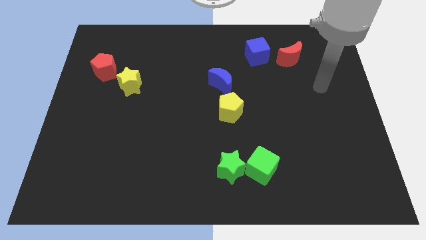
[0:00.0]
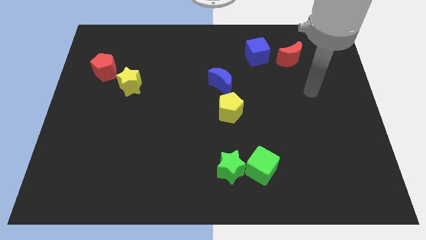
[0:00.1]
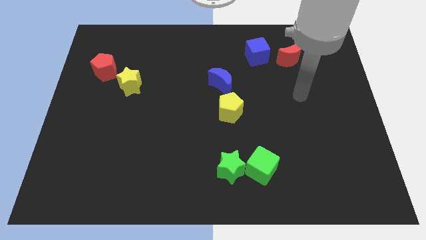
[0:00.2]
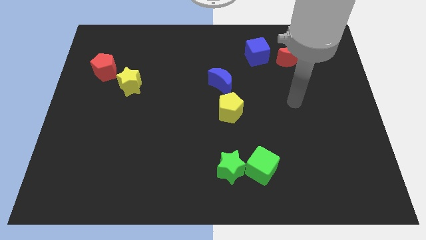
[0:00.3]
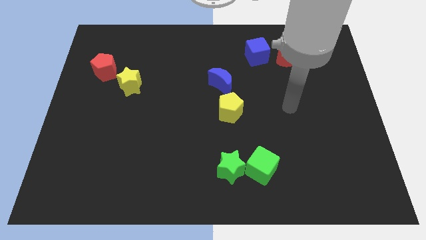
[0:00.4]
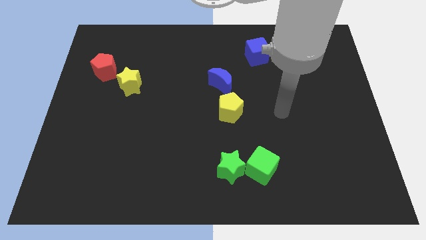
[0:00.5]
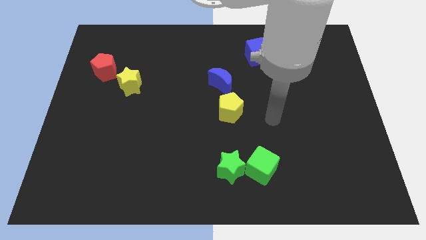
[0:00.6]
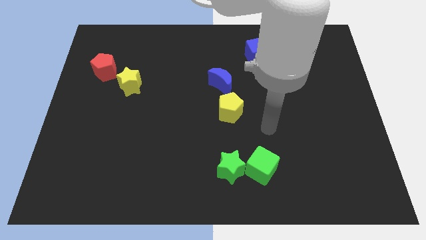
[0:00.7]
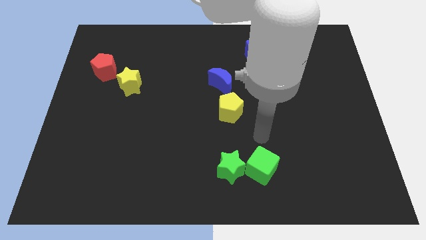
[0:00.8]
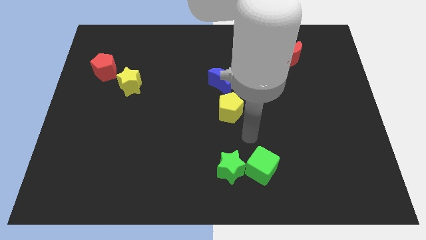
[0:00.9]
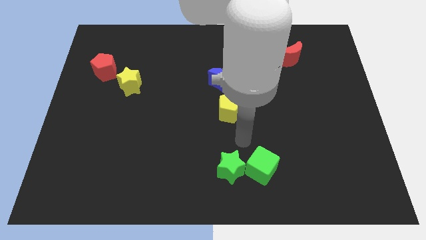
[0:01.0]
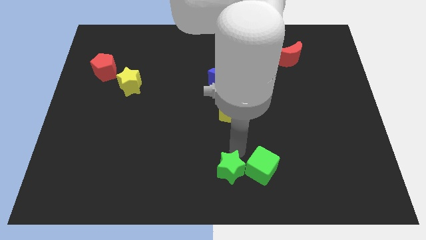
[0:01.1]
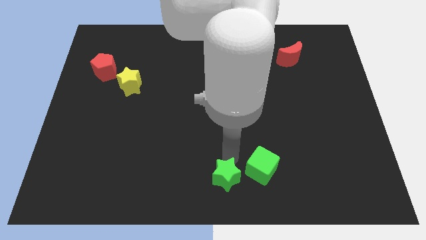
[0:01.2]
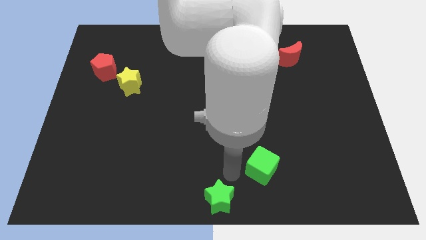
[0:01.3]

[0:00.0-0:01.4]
separate the green cube from the green star

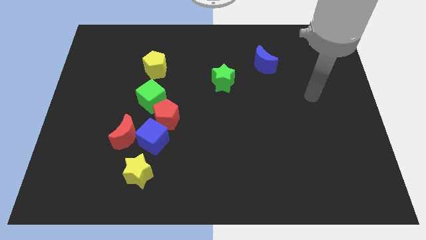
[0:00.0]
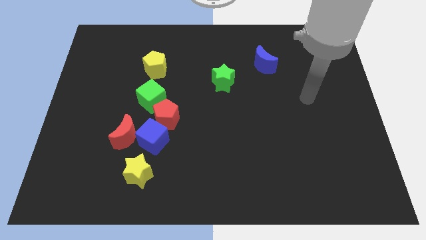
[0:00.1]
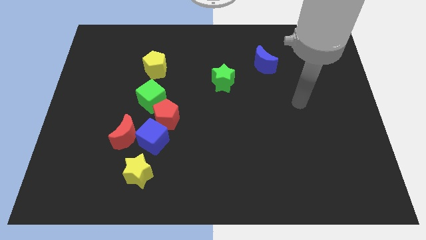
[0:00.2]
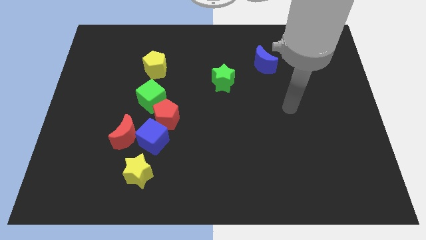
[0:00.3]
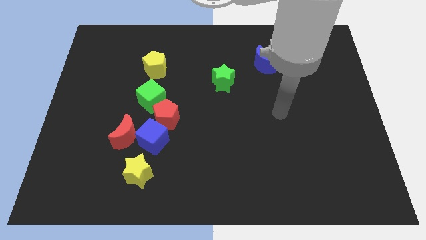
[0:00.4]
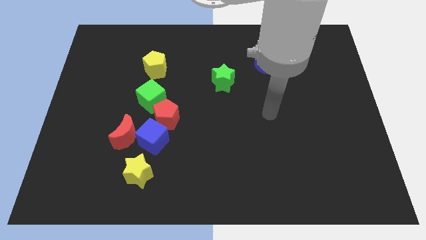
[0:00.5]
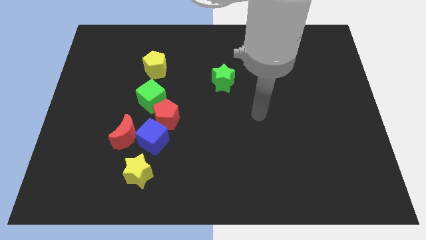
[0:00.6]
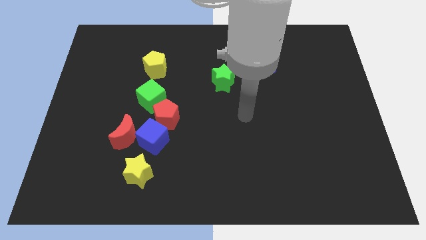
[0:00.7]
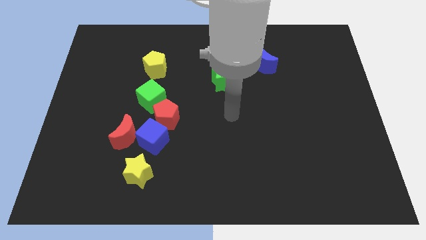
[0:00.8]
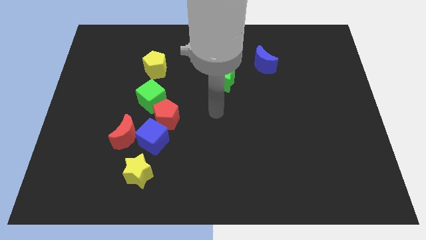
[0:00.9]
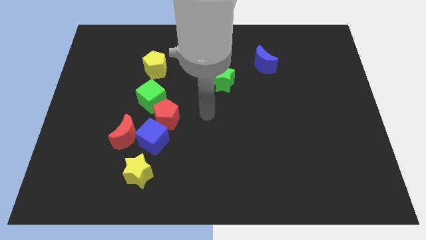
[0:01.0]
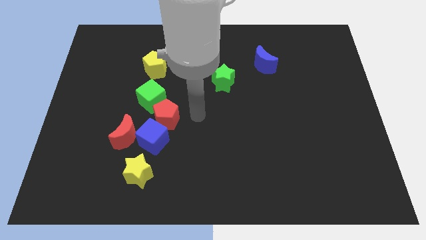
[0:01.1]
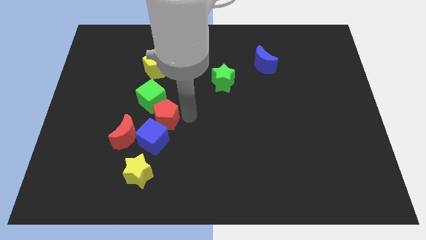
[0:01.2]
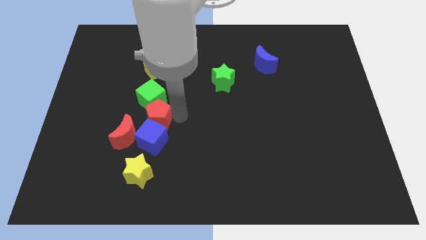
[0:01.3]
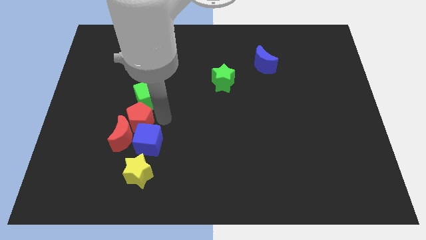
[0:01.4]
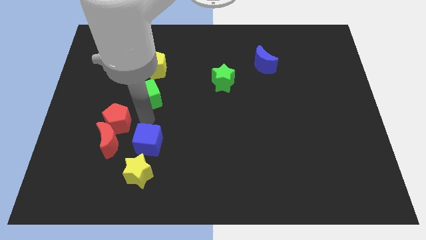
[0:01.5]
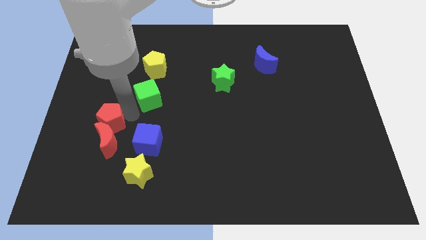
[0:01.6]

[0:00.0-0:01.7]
separate the green cube from the red pentagon

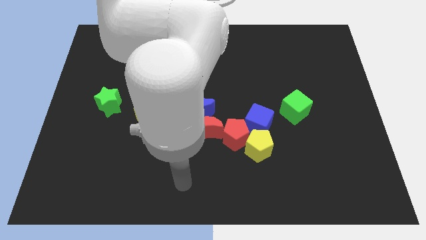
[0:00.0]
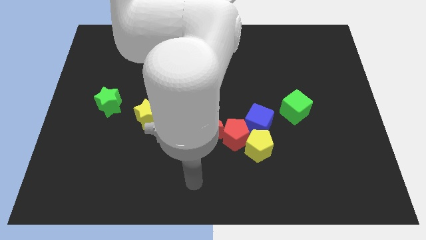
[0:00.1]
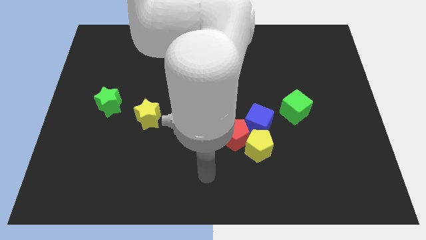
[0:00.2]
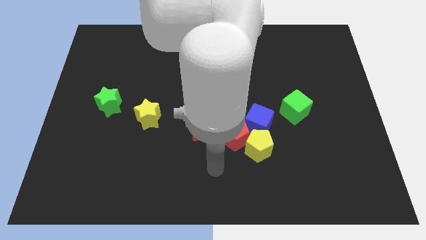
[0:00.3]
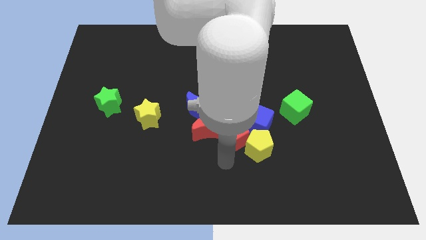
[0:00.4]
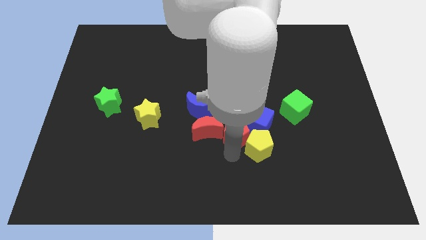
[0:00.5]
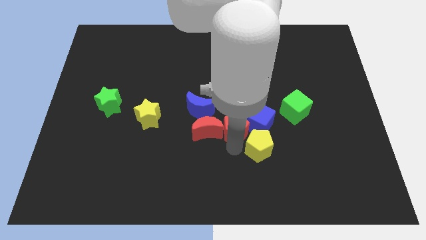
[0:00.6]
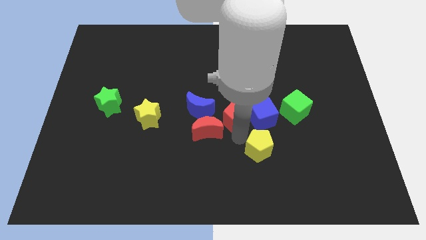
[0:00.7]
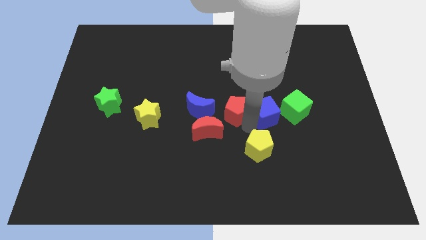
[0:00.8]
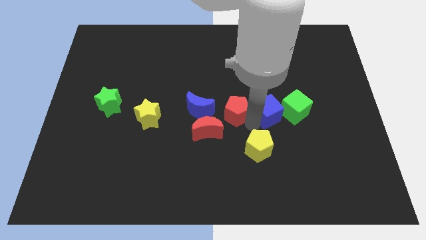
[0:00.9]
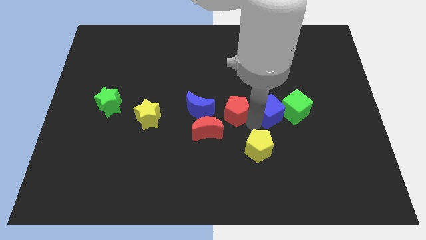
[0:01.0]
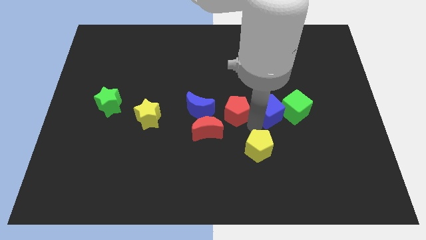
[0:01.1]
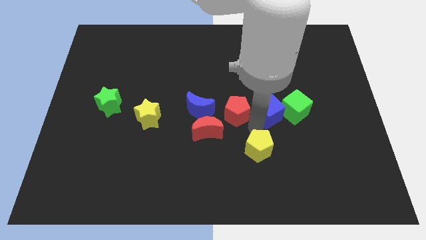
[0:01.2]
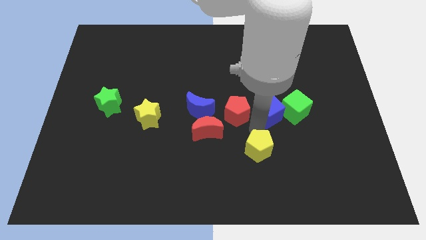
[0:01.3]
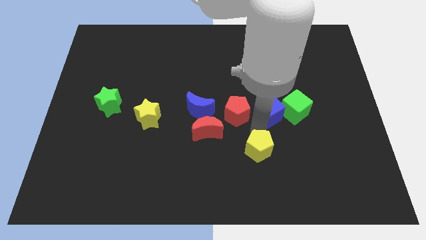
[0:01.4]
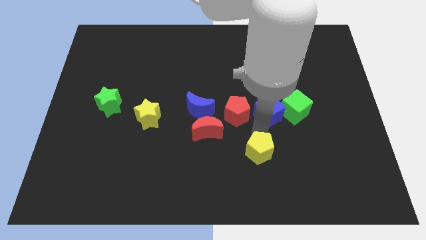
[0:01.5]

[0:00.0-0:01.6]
separate the yellow pentagon from the red pentagon and blue cube

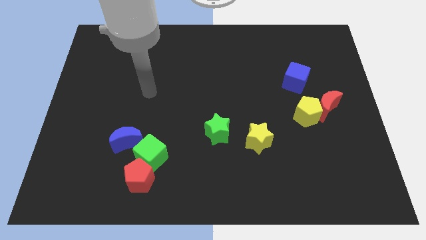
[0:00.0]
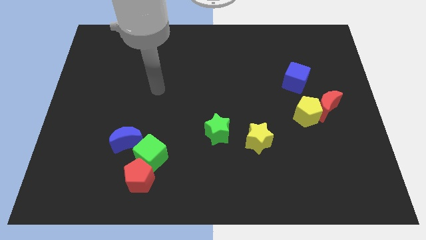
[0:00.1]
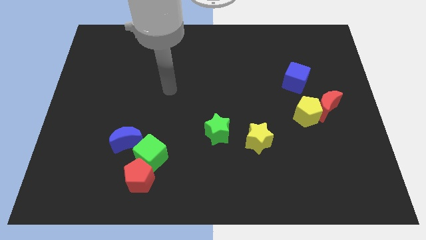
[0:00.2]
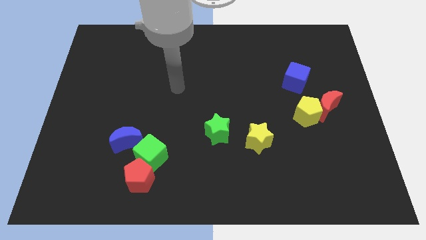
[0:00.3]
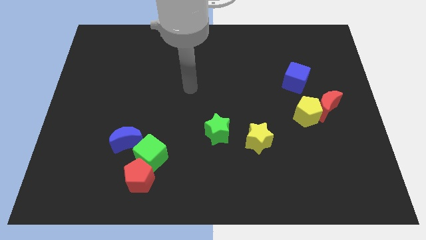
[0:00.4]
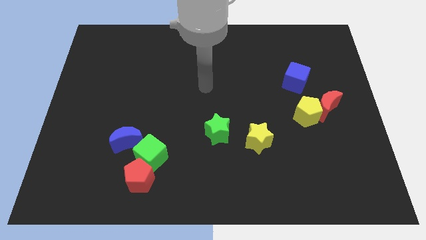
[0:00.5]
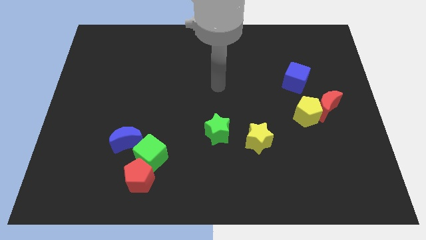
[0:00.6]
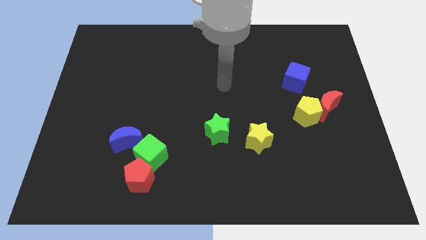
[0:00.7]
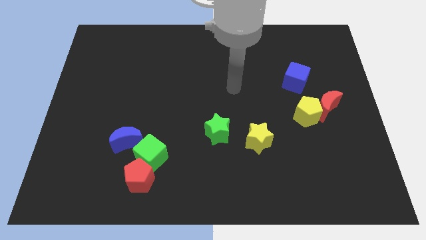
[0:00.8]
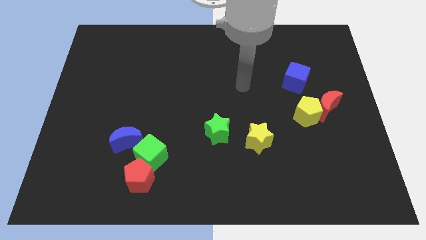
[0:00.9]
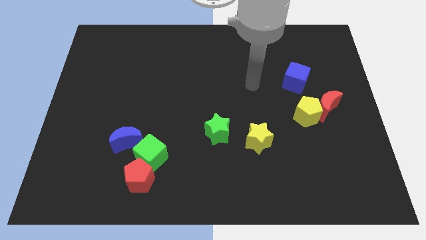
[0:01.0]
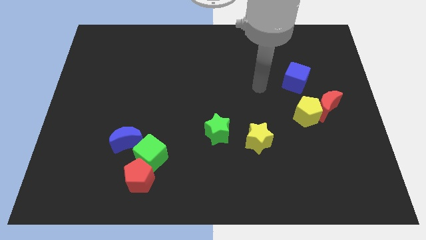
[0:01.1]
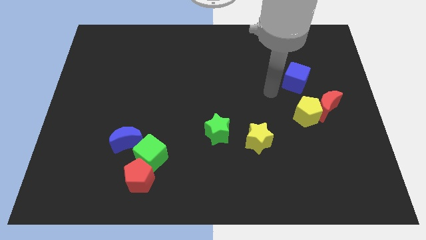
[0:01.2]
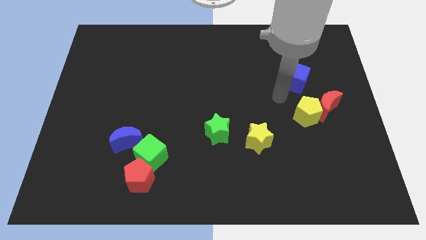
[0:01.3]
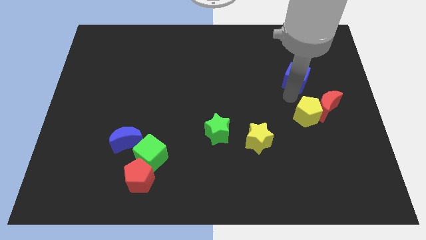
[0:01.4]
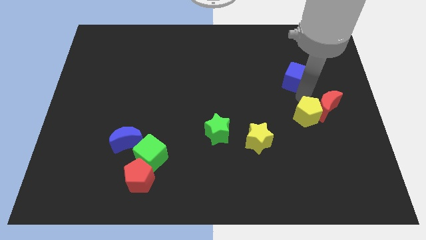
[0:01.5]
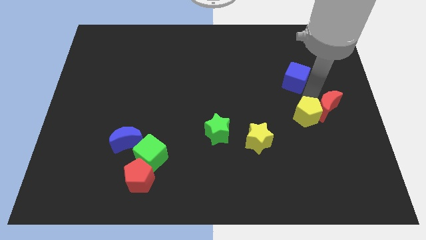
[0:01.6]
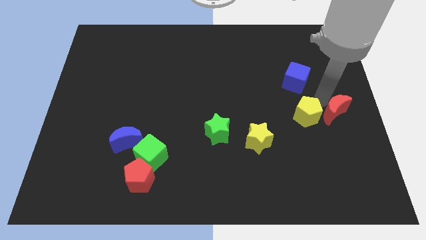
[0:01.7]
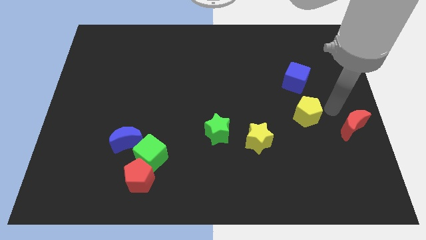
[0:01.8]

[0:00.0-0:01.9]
separate the yellow pentagon from the red moon

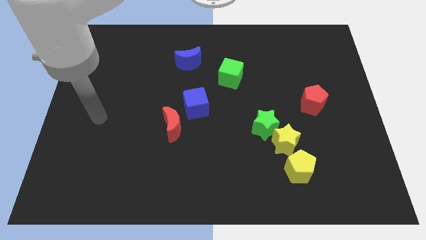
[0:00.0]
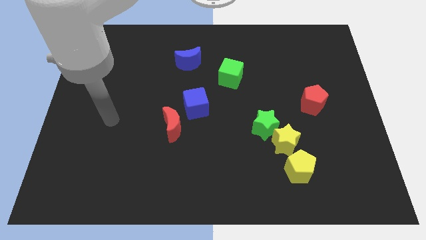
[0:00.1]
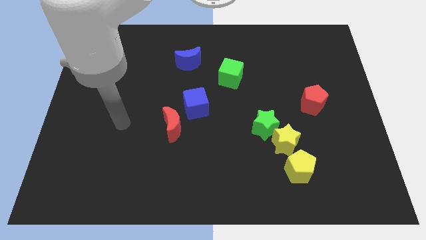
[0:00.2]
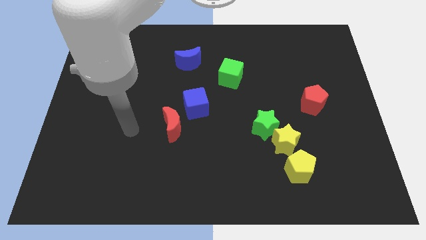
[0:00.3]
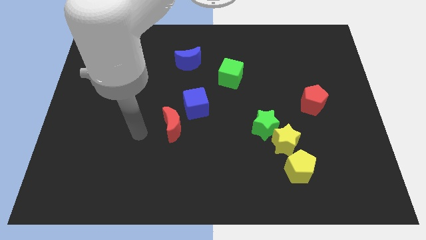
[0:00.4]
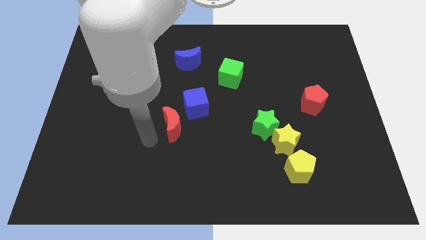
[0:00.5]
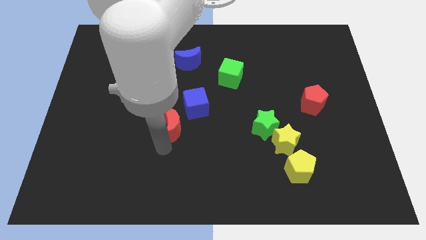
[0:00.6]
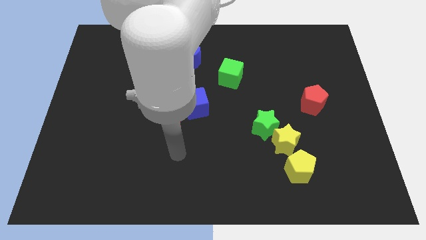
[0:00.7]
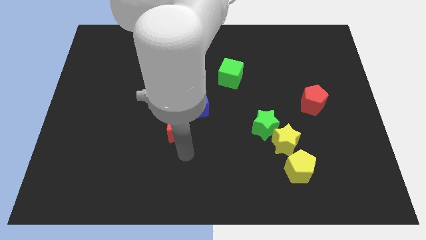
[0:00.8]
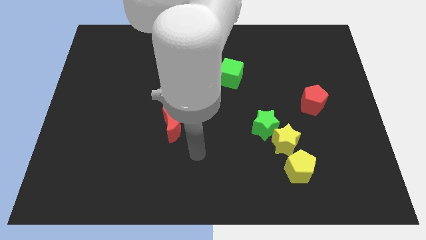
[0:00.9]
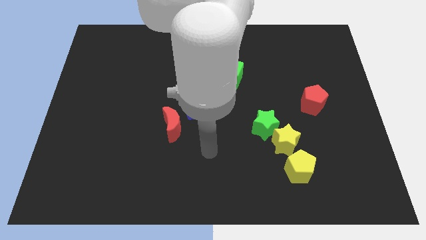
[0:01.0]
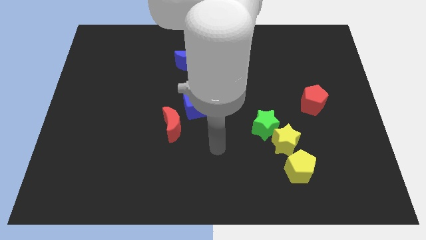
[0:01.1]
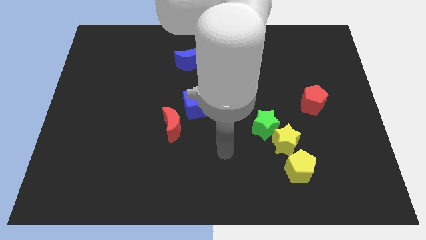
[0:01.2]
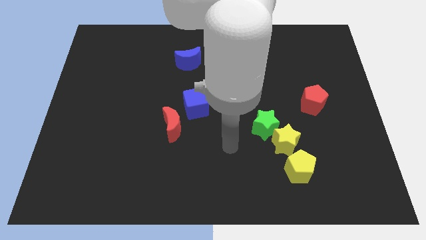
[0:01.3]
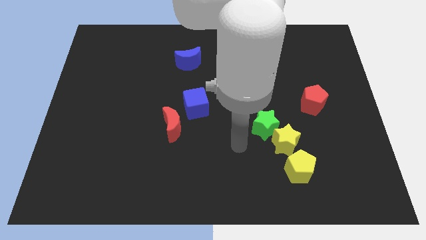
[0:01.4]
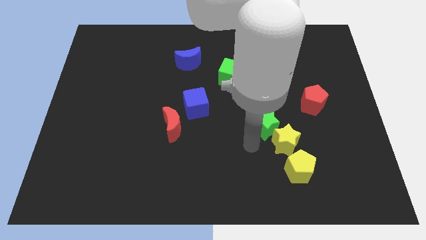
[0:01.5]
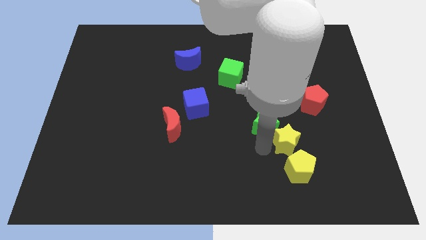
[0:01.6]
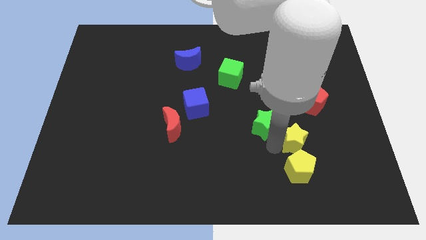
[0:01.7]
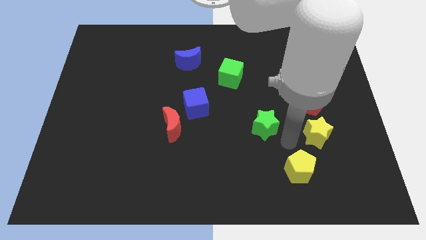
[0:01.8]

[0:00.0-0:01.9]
pull the green star apart from the yellow star

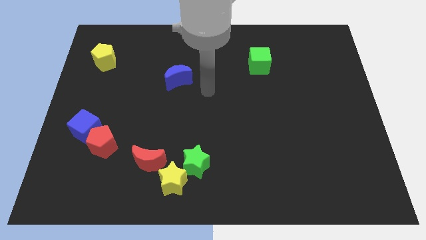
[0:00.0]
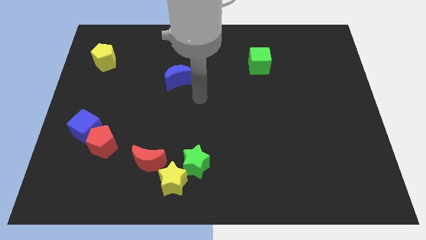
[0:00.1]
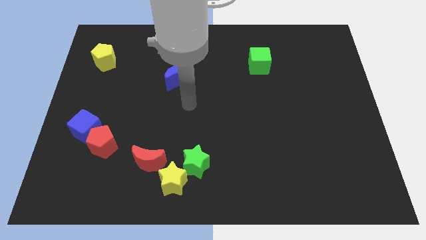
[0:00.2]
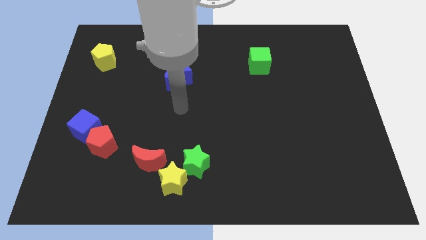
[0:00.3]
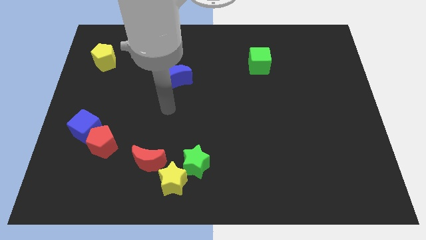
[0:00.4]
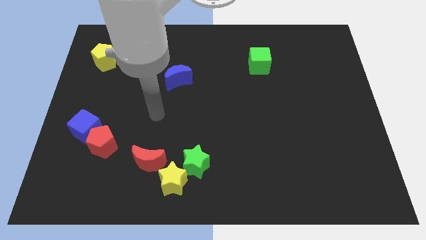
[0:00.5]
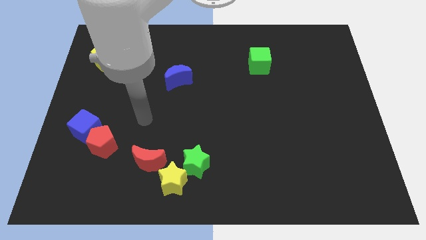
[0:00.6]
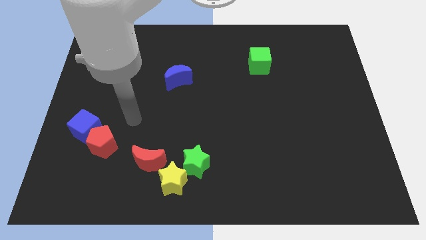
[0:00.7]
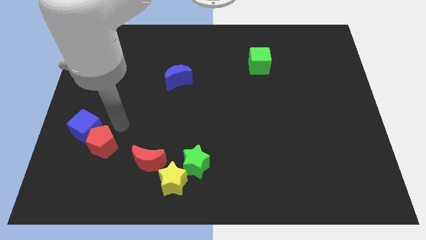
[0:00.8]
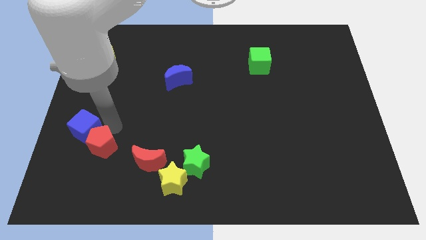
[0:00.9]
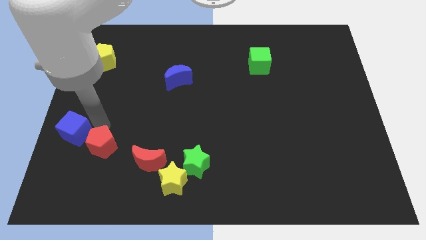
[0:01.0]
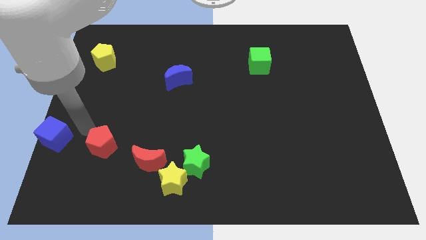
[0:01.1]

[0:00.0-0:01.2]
separate the red pentagon from the blue cube
